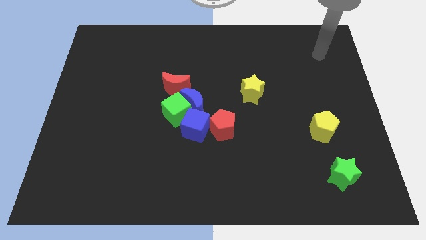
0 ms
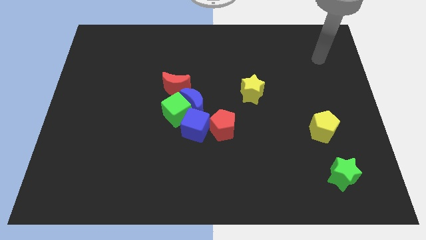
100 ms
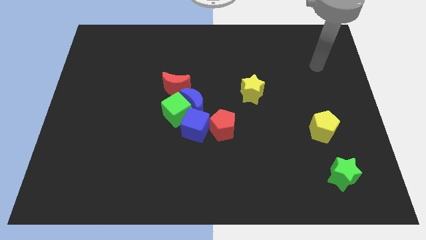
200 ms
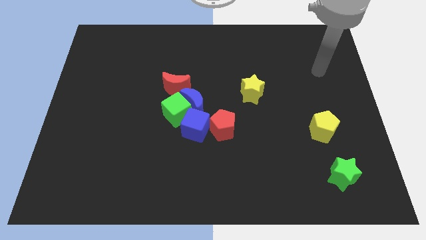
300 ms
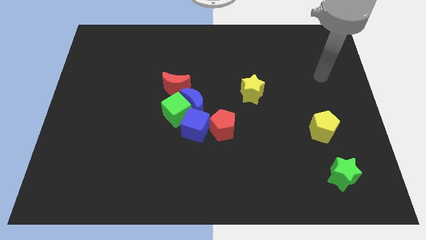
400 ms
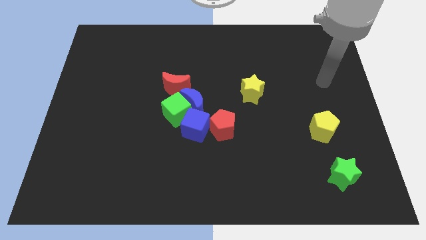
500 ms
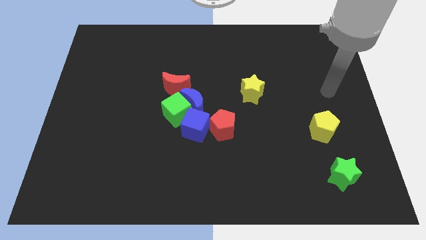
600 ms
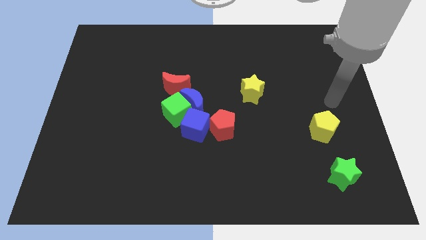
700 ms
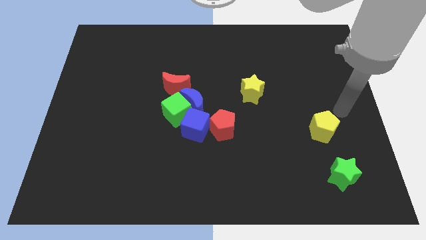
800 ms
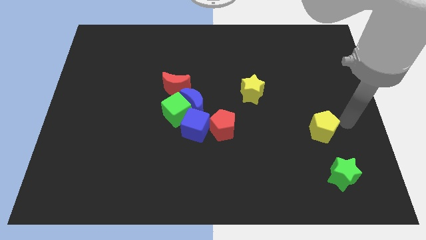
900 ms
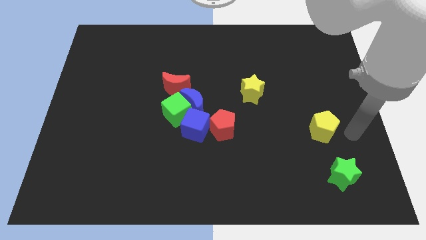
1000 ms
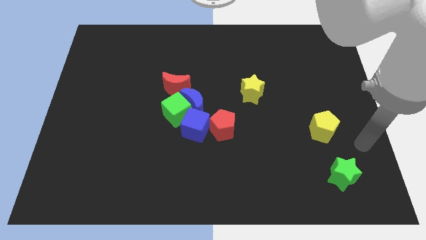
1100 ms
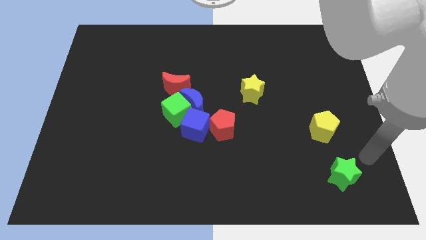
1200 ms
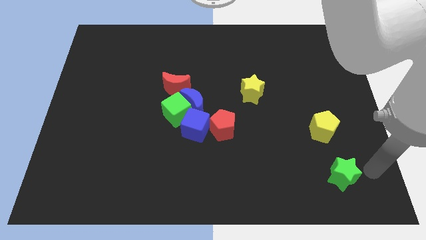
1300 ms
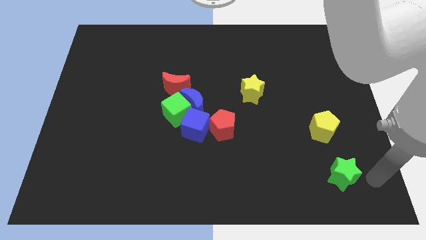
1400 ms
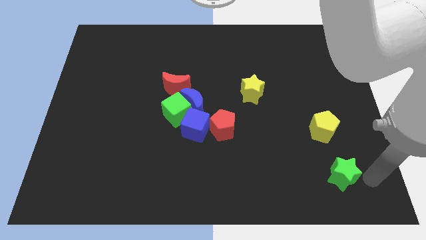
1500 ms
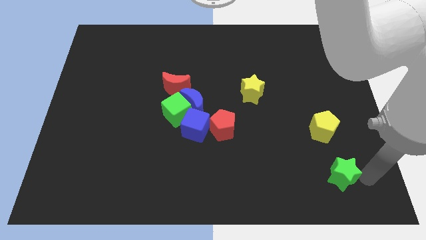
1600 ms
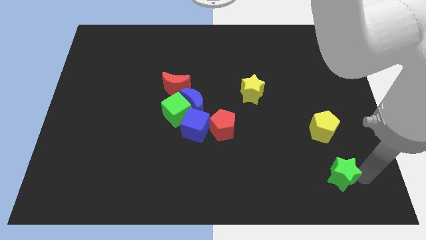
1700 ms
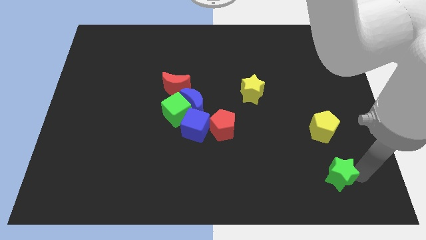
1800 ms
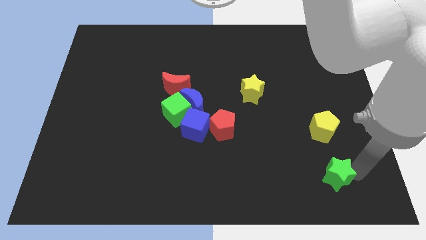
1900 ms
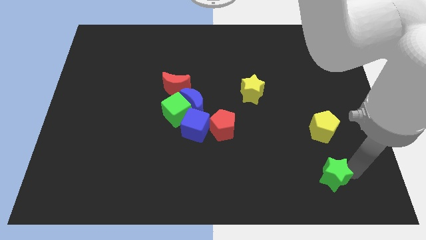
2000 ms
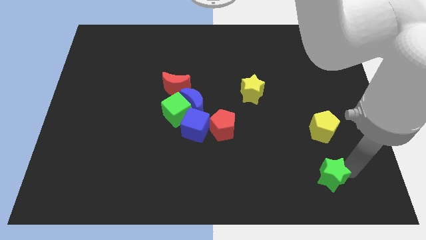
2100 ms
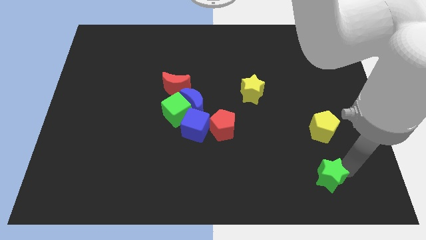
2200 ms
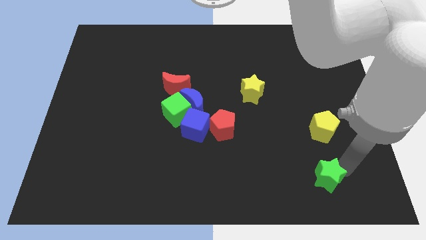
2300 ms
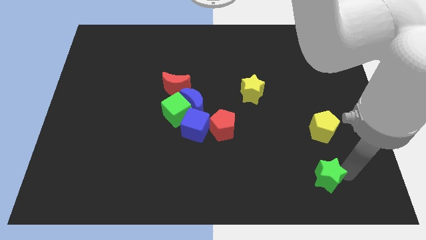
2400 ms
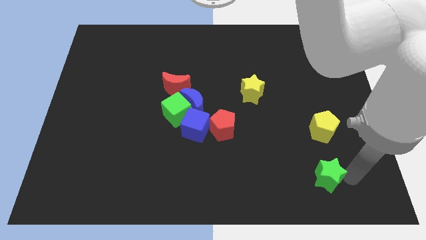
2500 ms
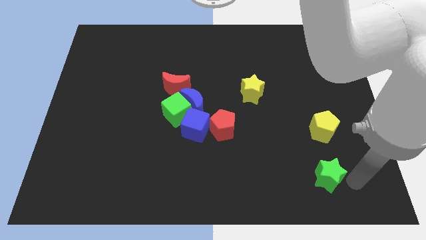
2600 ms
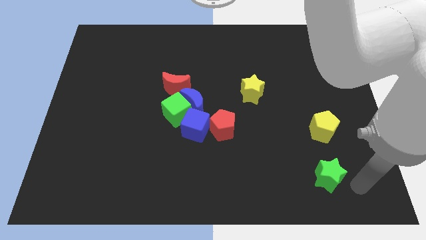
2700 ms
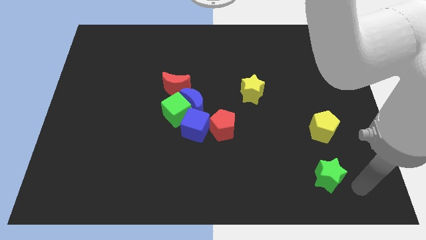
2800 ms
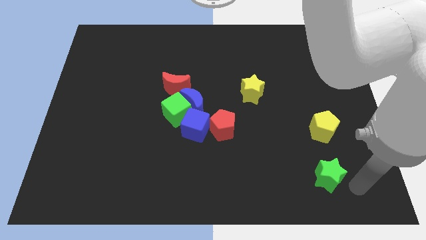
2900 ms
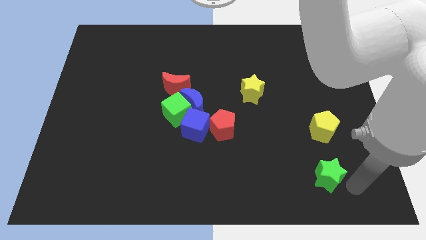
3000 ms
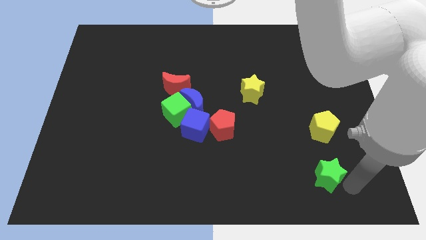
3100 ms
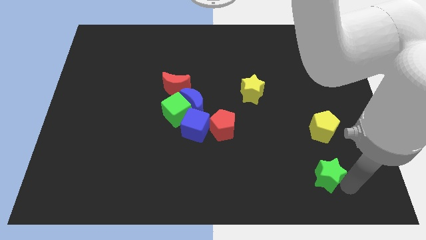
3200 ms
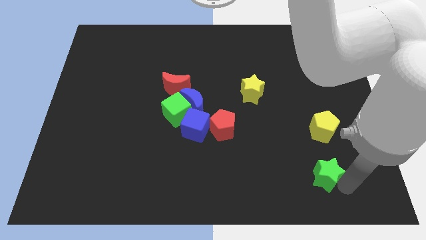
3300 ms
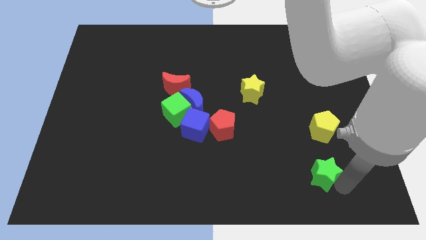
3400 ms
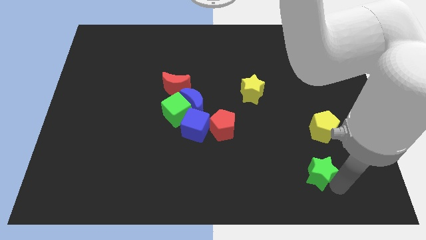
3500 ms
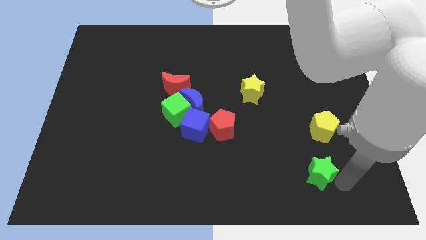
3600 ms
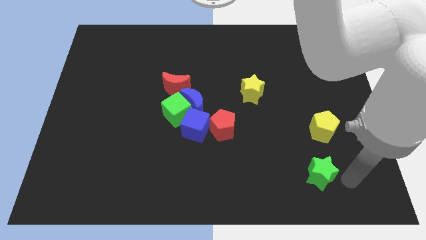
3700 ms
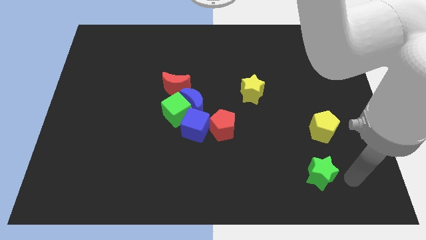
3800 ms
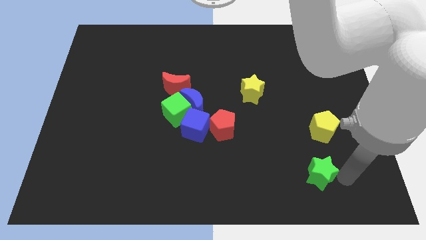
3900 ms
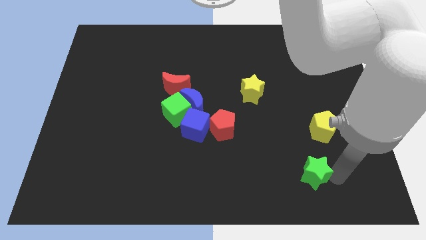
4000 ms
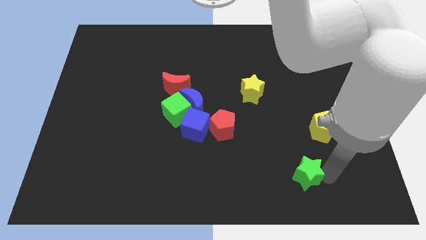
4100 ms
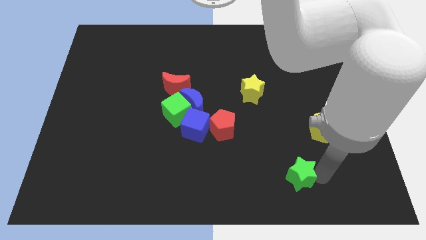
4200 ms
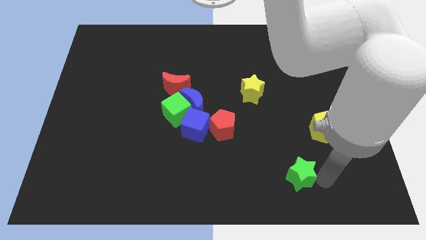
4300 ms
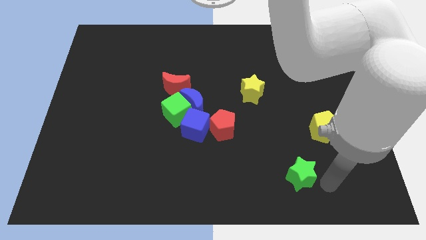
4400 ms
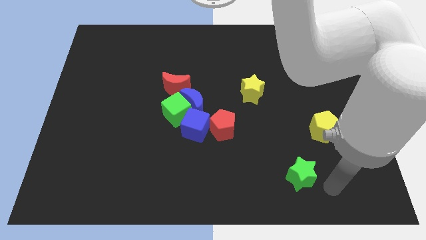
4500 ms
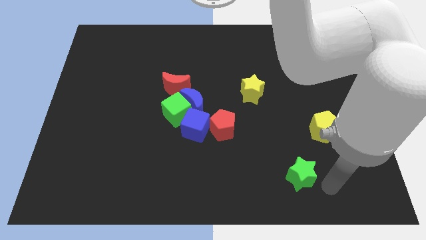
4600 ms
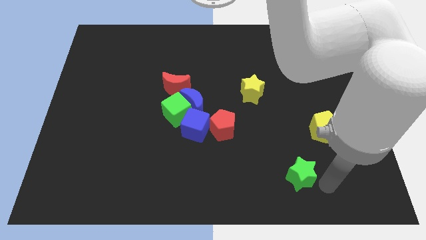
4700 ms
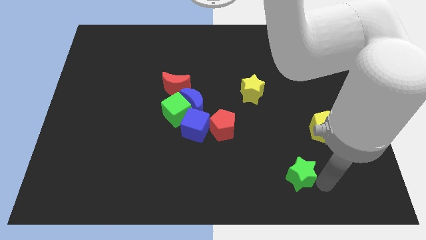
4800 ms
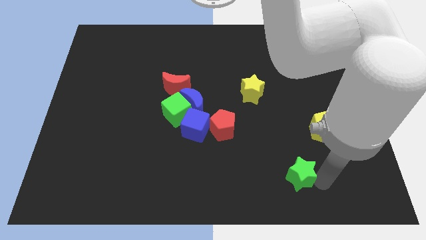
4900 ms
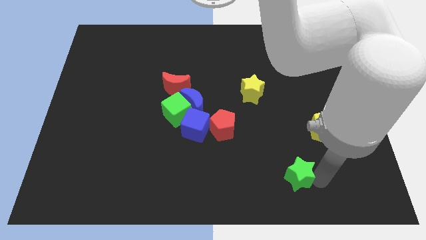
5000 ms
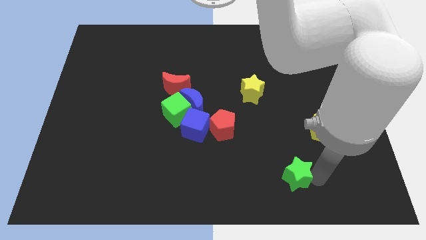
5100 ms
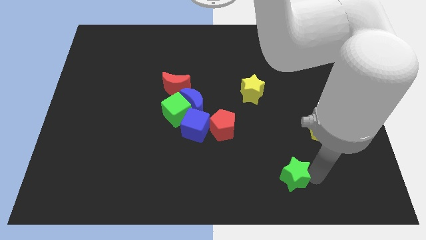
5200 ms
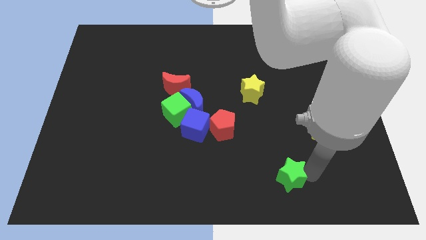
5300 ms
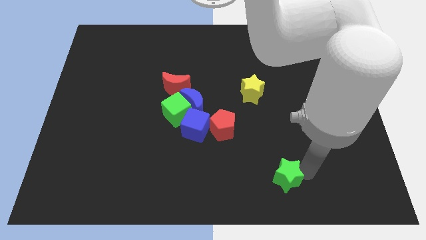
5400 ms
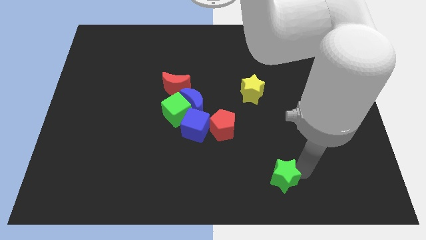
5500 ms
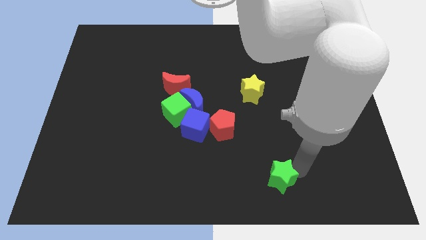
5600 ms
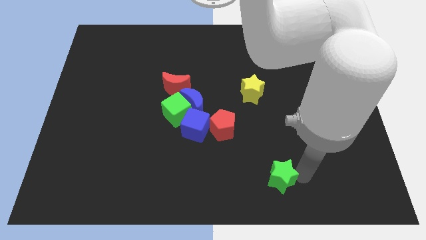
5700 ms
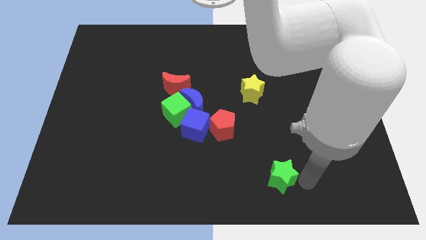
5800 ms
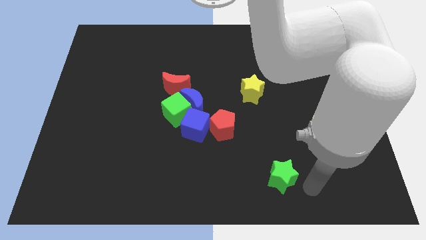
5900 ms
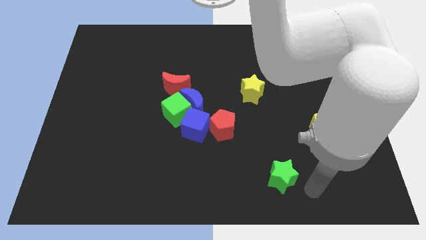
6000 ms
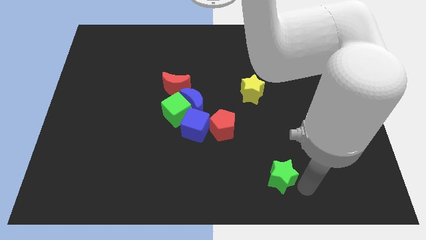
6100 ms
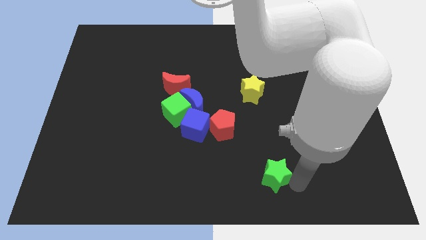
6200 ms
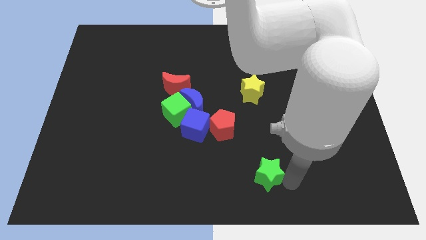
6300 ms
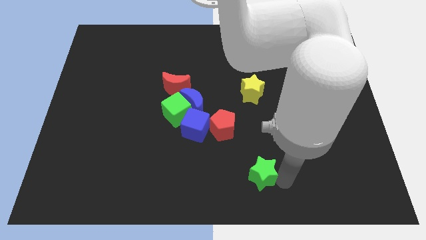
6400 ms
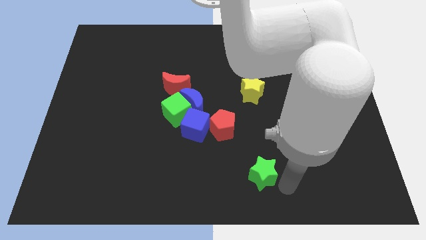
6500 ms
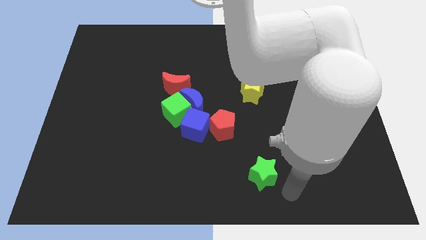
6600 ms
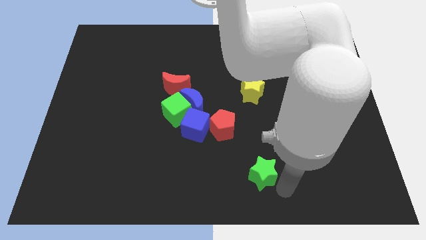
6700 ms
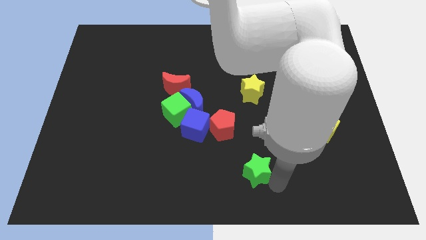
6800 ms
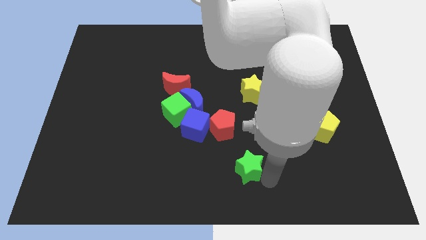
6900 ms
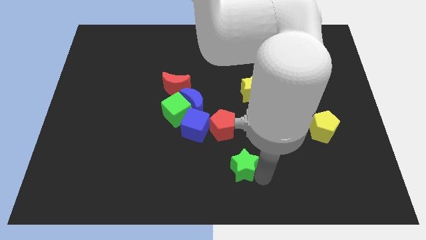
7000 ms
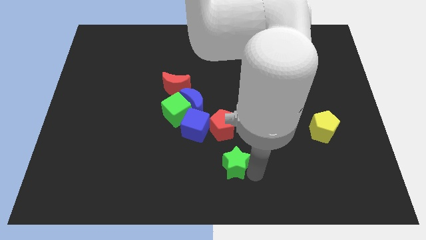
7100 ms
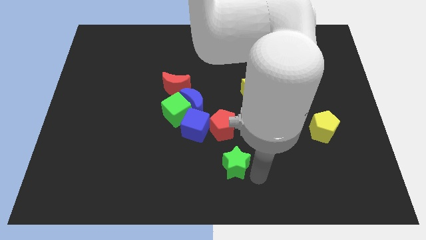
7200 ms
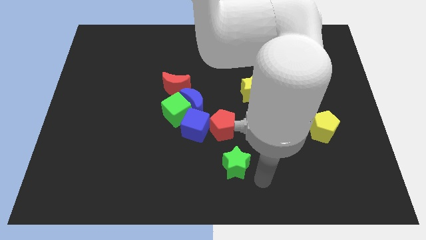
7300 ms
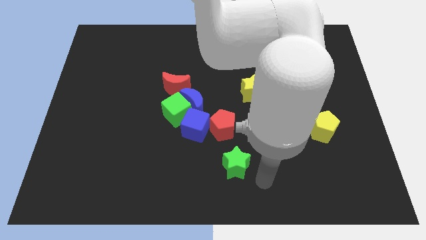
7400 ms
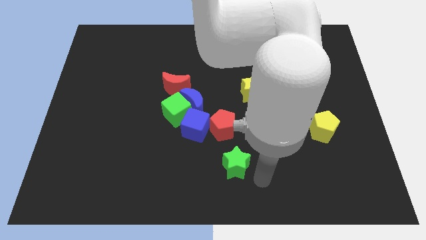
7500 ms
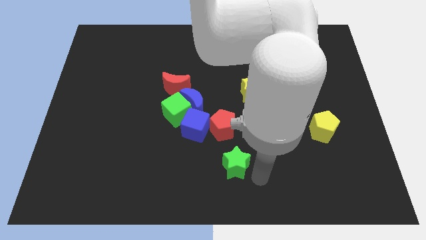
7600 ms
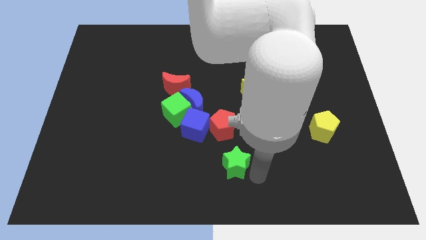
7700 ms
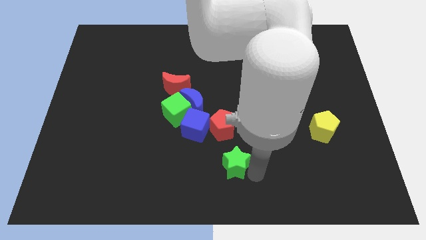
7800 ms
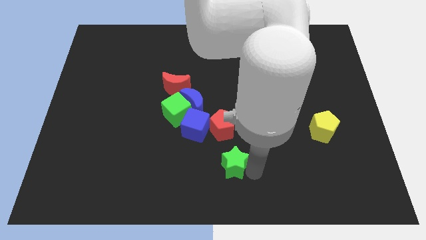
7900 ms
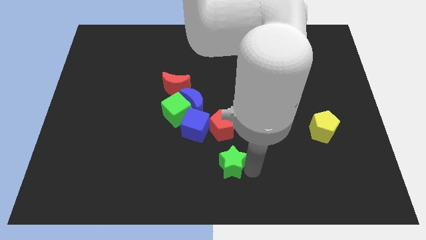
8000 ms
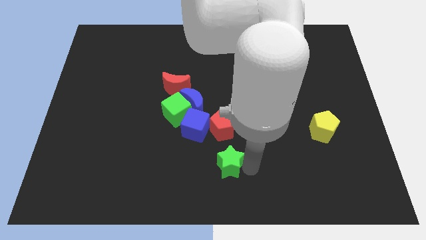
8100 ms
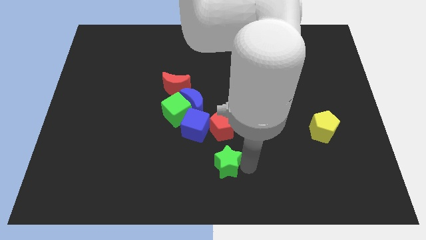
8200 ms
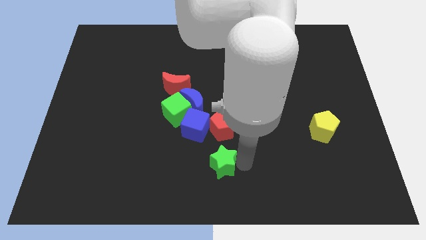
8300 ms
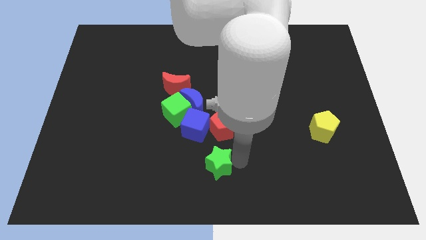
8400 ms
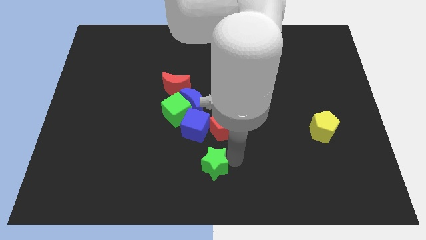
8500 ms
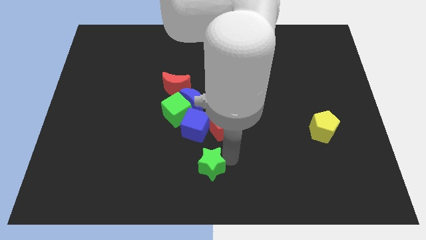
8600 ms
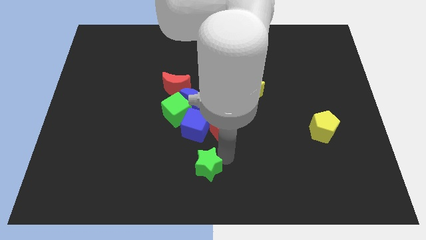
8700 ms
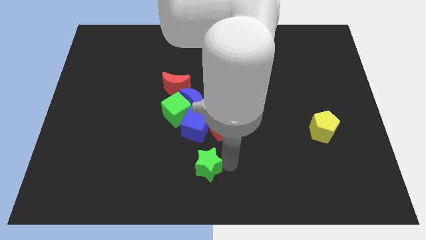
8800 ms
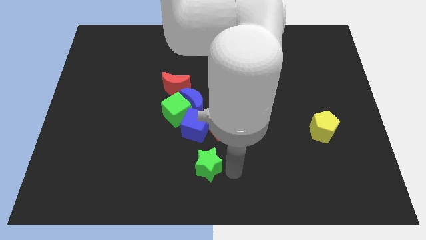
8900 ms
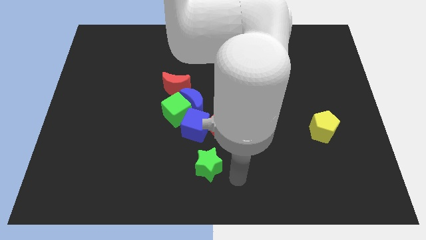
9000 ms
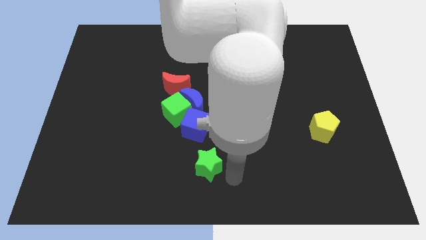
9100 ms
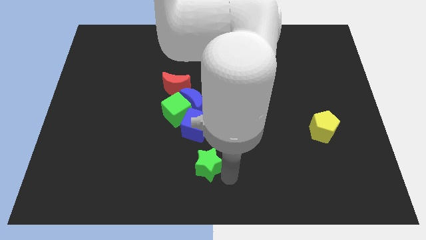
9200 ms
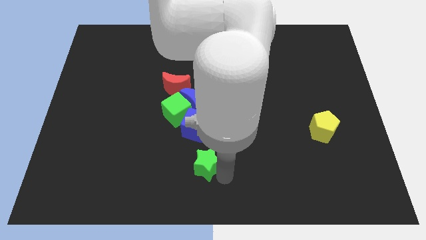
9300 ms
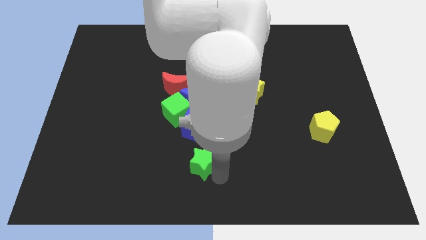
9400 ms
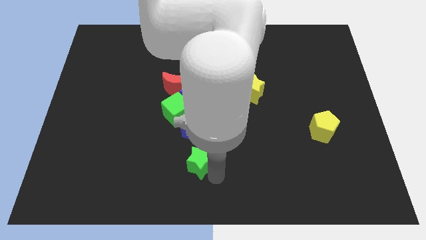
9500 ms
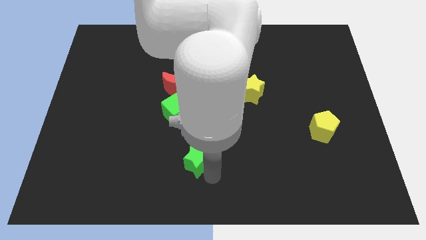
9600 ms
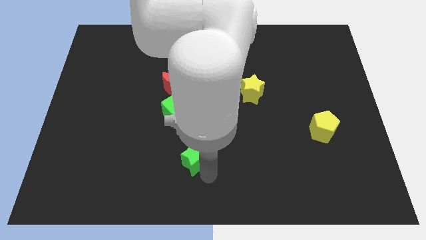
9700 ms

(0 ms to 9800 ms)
push the green star to the bottom of the green cube
